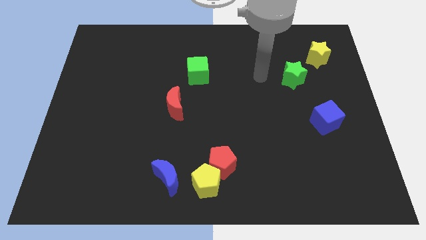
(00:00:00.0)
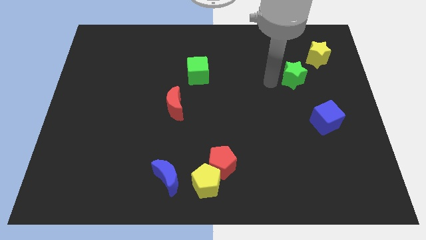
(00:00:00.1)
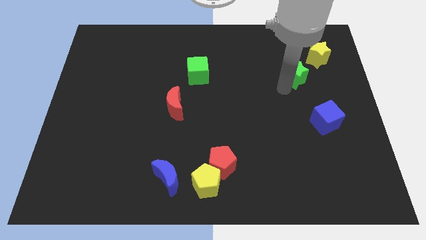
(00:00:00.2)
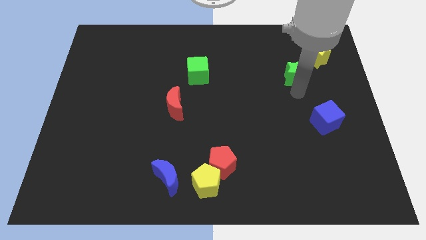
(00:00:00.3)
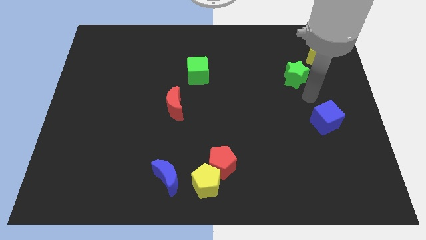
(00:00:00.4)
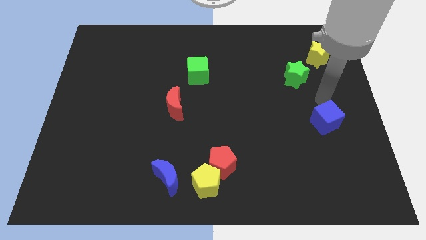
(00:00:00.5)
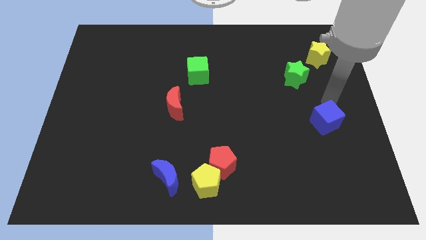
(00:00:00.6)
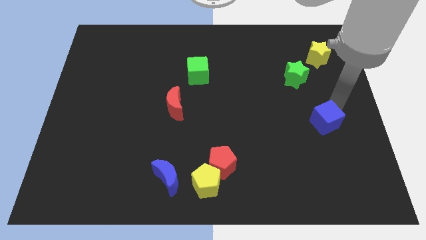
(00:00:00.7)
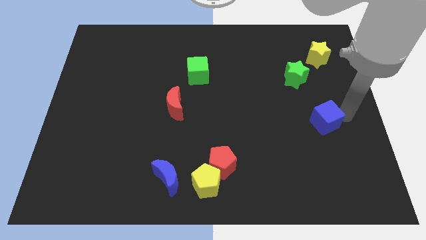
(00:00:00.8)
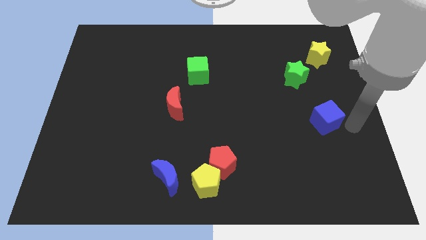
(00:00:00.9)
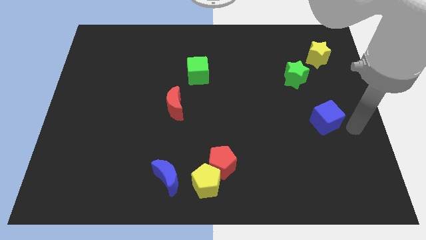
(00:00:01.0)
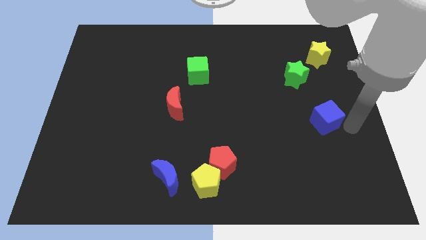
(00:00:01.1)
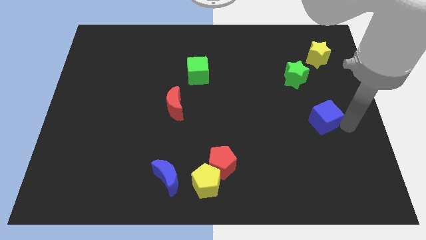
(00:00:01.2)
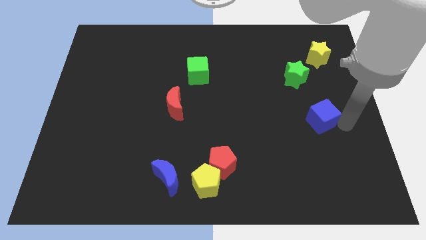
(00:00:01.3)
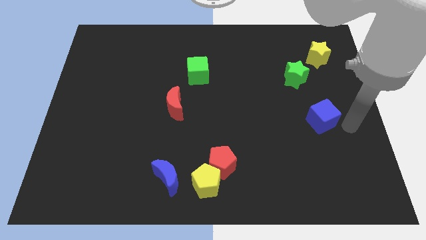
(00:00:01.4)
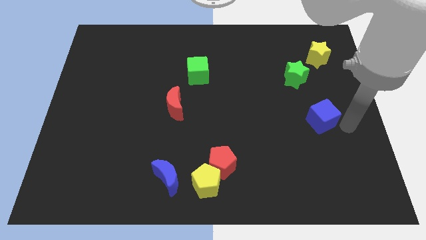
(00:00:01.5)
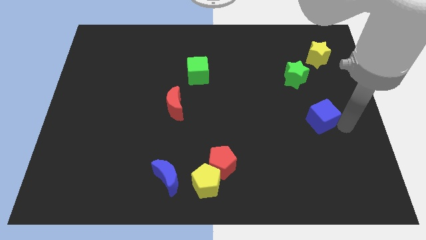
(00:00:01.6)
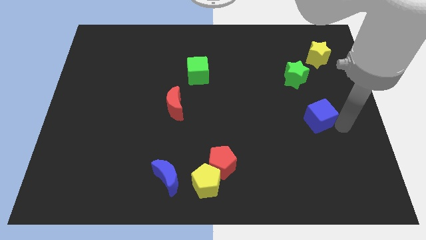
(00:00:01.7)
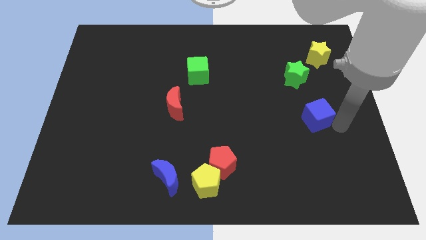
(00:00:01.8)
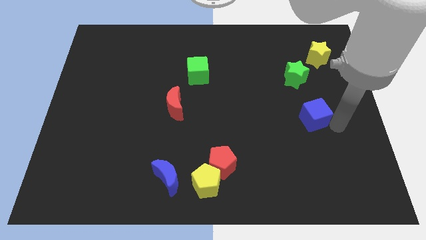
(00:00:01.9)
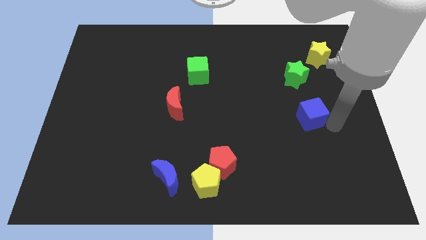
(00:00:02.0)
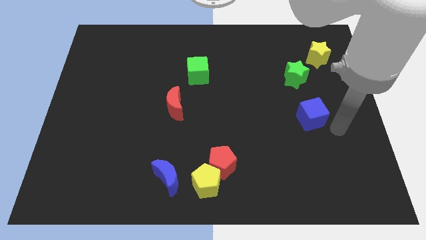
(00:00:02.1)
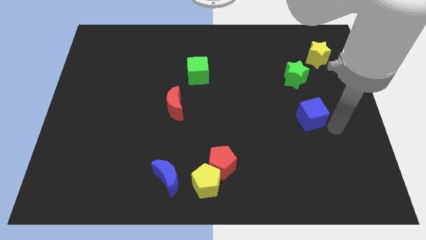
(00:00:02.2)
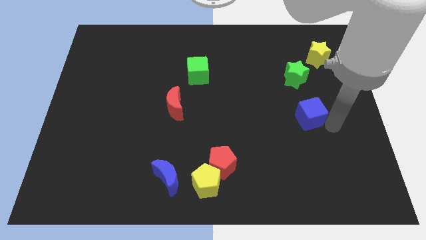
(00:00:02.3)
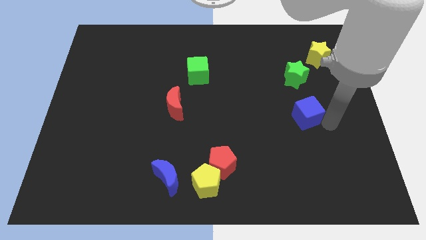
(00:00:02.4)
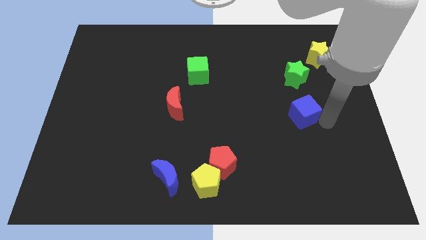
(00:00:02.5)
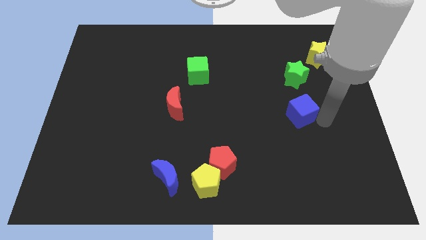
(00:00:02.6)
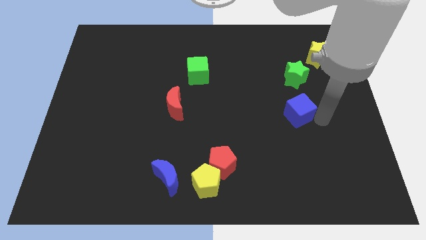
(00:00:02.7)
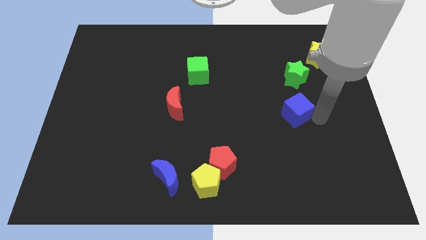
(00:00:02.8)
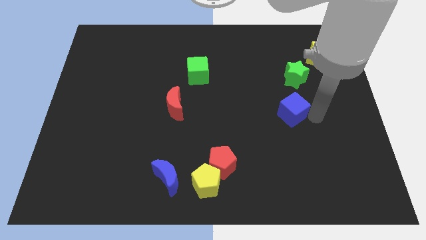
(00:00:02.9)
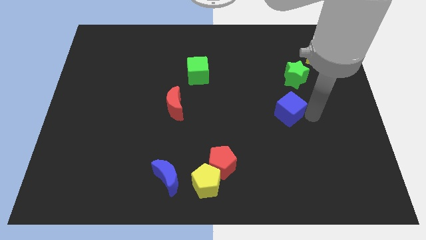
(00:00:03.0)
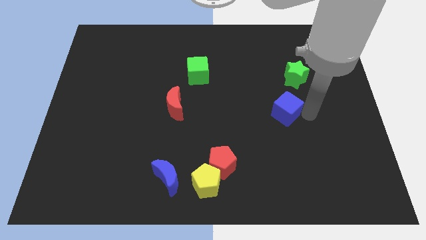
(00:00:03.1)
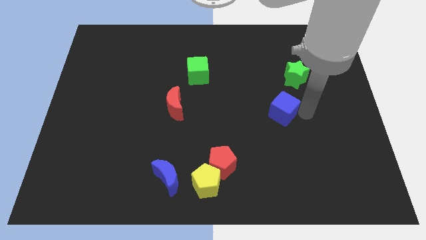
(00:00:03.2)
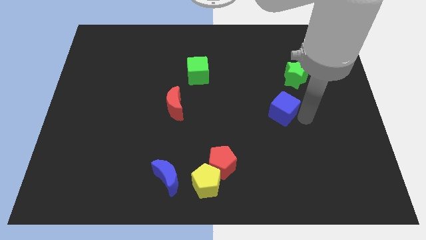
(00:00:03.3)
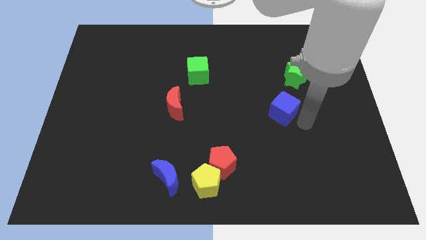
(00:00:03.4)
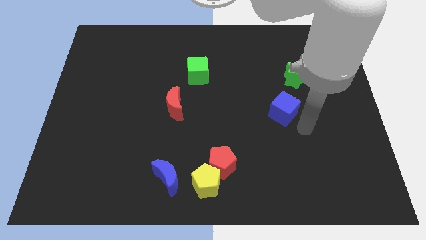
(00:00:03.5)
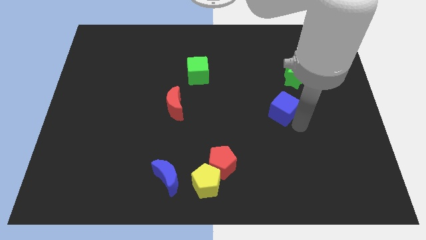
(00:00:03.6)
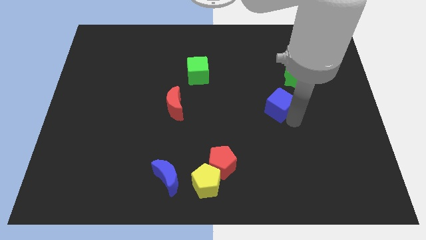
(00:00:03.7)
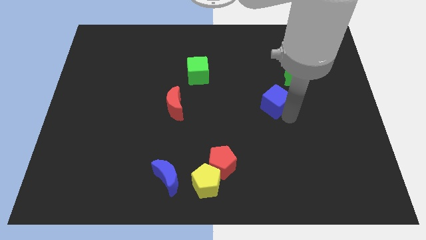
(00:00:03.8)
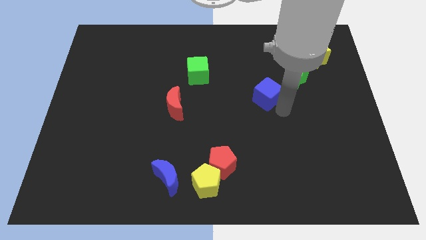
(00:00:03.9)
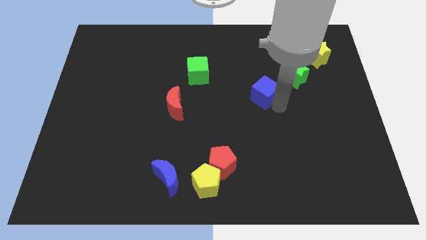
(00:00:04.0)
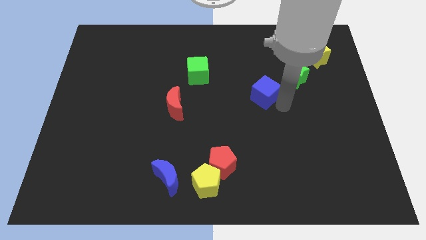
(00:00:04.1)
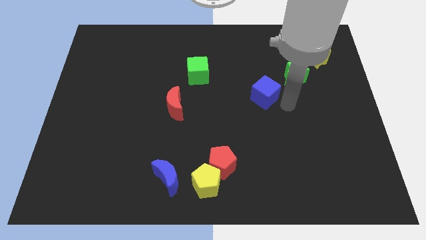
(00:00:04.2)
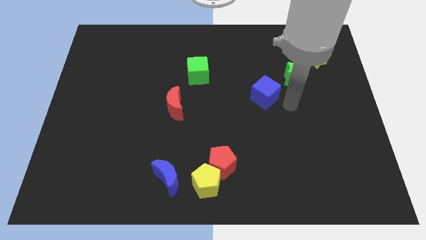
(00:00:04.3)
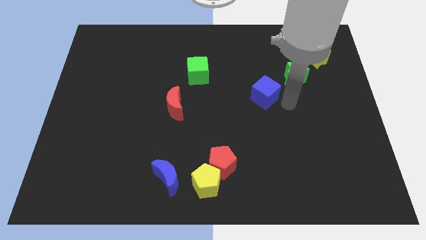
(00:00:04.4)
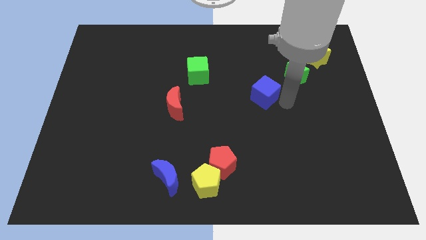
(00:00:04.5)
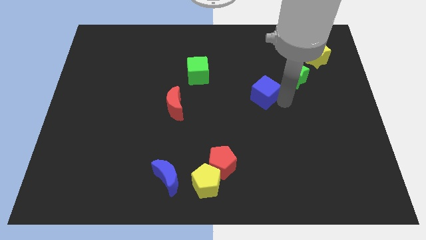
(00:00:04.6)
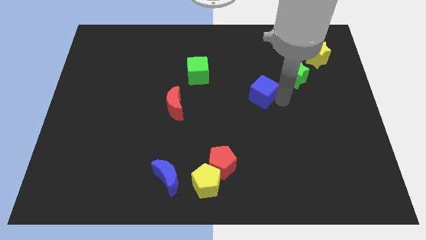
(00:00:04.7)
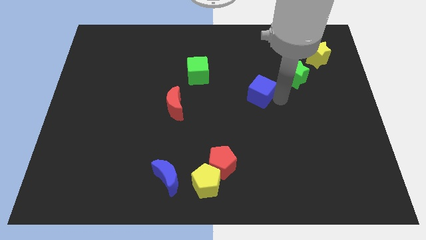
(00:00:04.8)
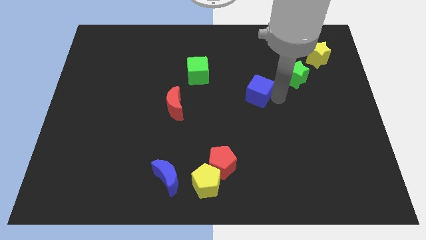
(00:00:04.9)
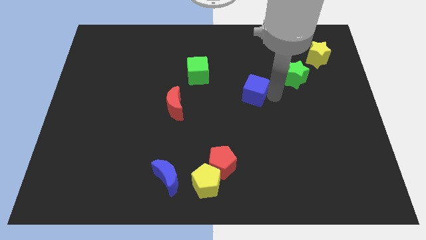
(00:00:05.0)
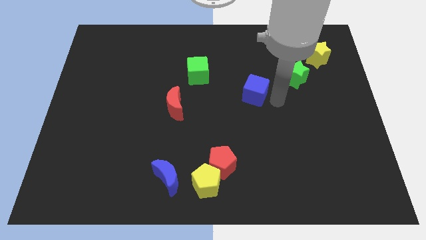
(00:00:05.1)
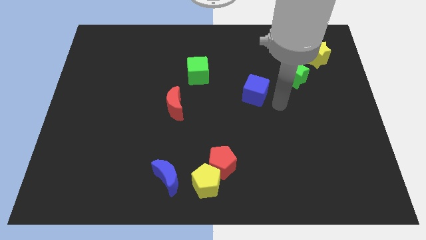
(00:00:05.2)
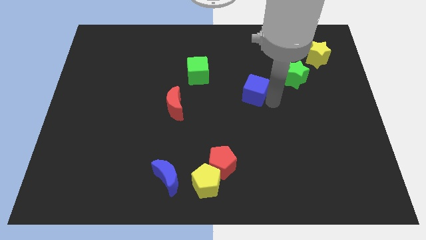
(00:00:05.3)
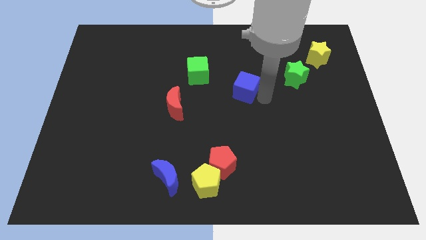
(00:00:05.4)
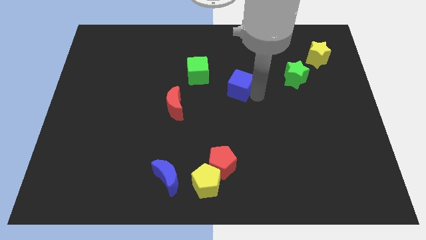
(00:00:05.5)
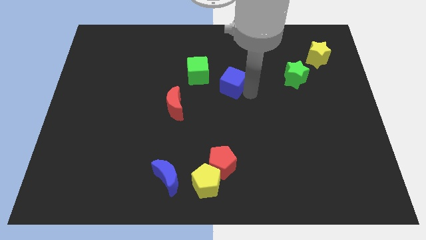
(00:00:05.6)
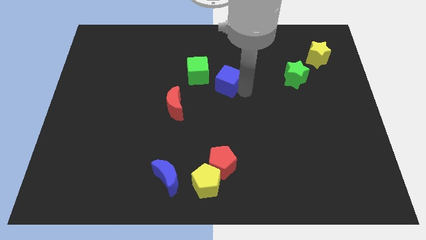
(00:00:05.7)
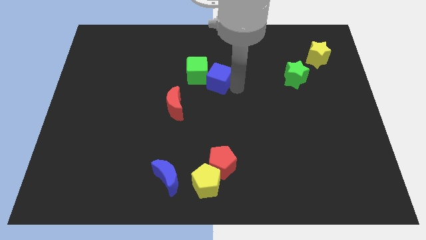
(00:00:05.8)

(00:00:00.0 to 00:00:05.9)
move the blue cube towards the green cube

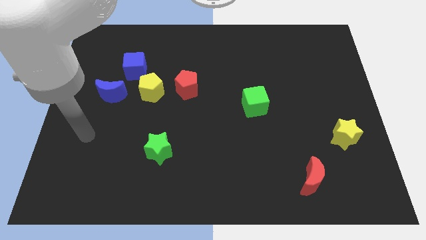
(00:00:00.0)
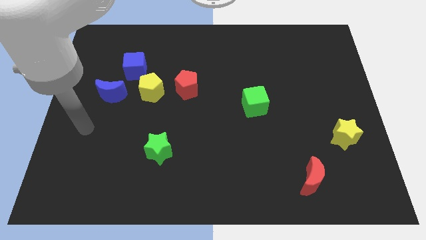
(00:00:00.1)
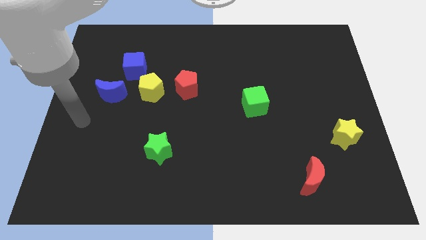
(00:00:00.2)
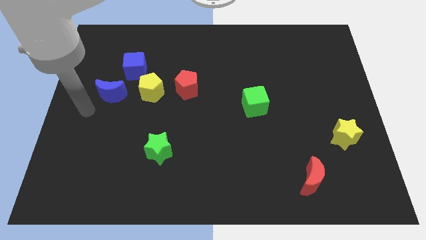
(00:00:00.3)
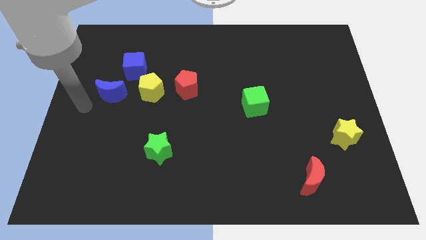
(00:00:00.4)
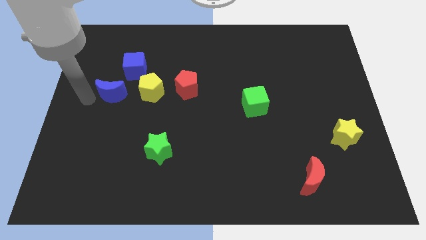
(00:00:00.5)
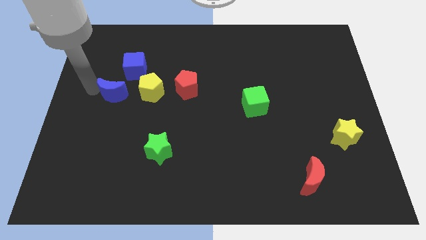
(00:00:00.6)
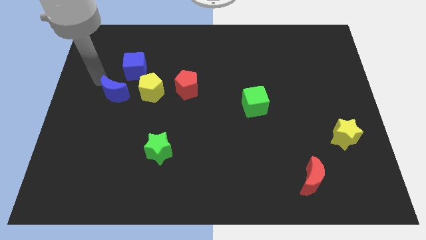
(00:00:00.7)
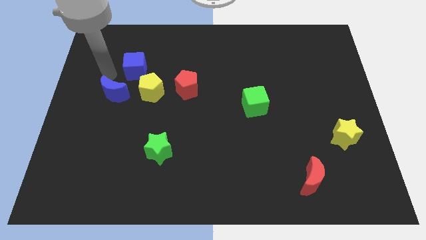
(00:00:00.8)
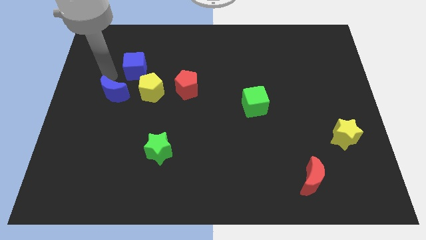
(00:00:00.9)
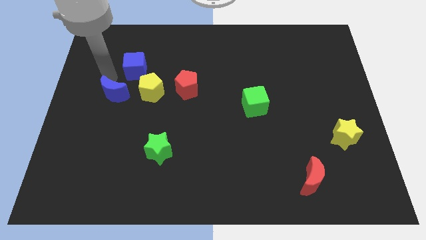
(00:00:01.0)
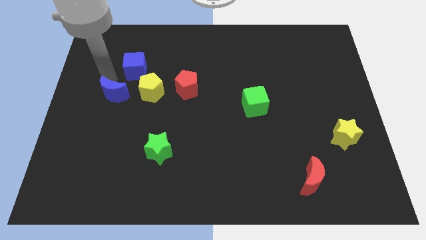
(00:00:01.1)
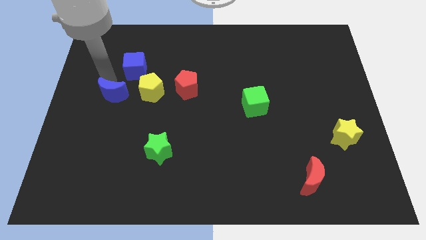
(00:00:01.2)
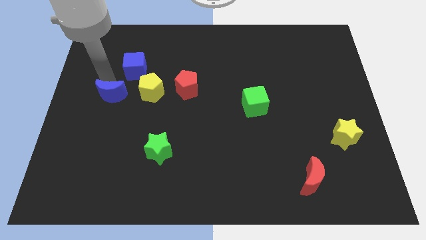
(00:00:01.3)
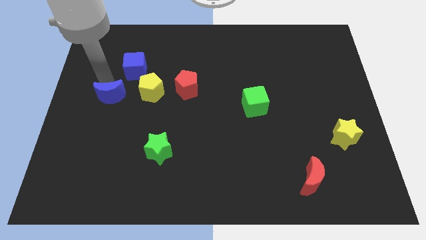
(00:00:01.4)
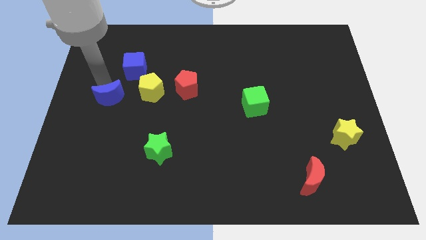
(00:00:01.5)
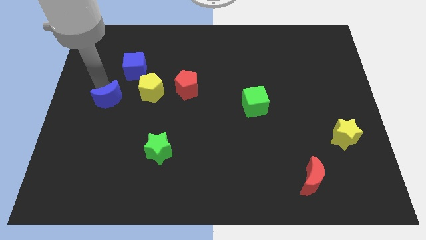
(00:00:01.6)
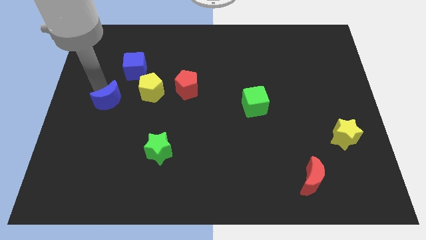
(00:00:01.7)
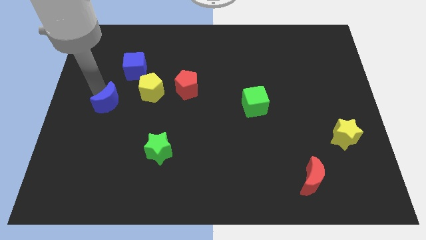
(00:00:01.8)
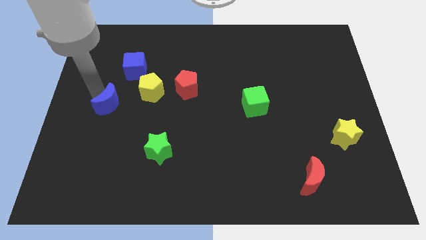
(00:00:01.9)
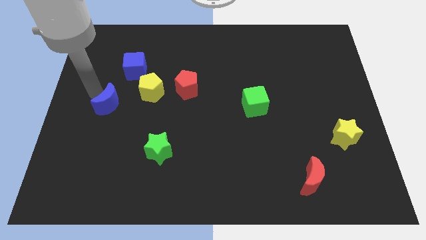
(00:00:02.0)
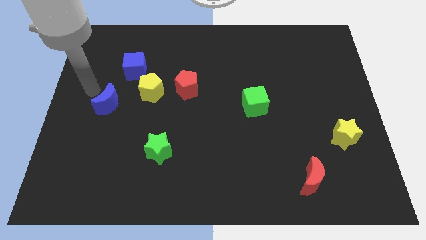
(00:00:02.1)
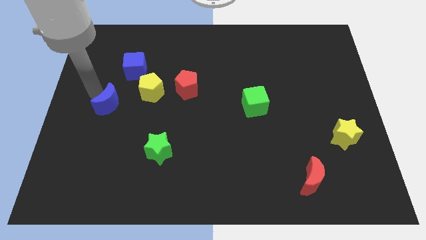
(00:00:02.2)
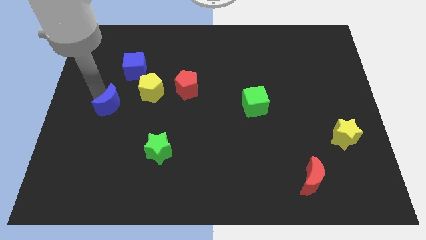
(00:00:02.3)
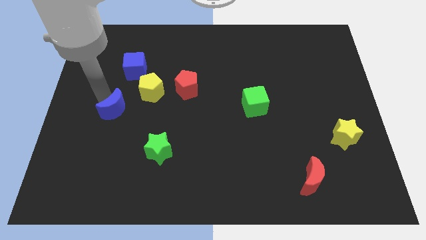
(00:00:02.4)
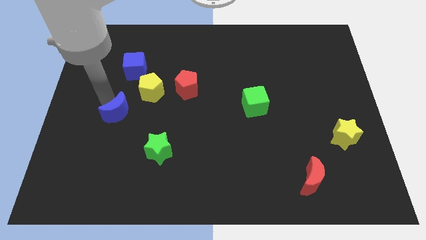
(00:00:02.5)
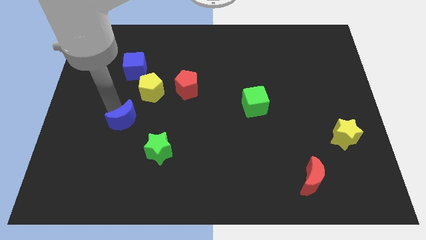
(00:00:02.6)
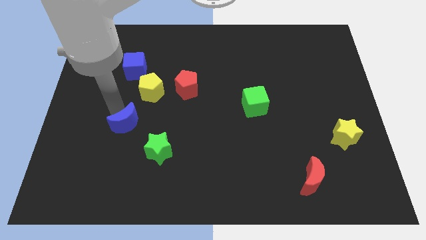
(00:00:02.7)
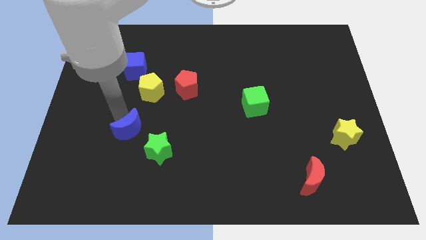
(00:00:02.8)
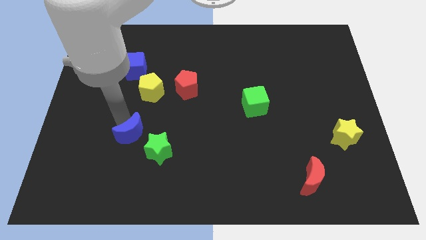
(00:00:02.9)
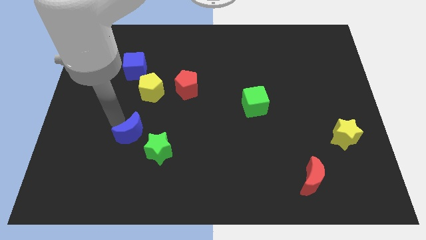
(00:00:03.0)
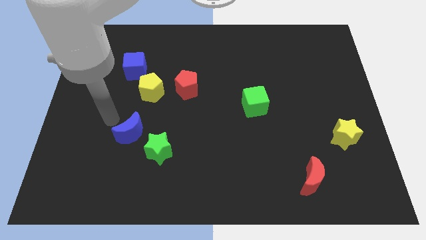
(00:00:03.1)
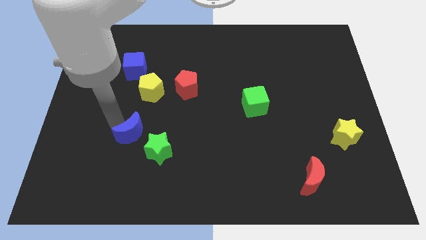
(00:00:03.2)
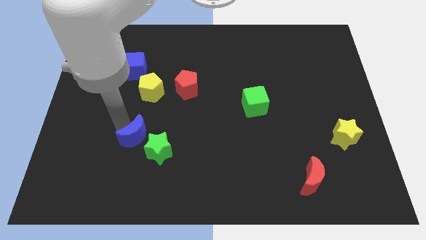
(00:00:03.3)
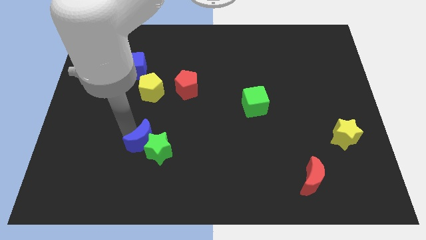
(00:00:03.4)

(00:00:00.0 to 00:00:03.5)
push the blue moon next to the green star
